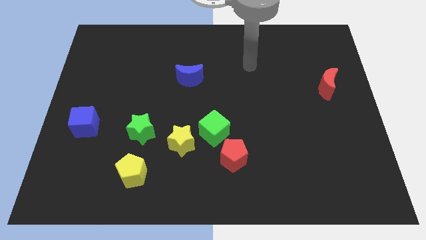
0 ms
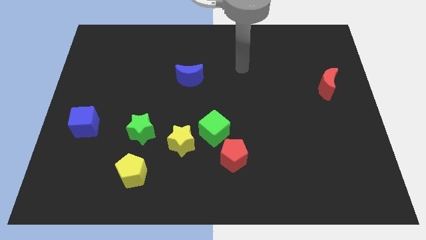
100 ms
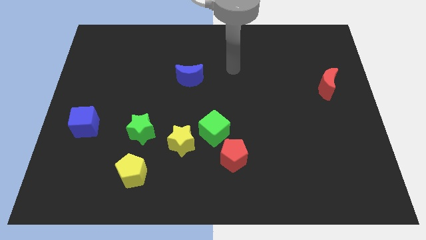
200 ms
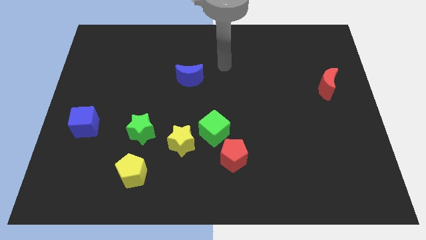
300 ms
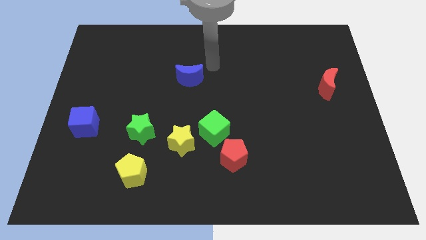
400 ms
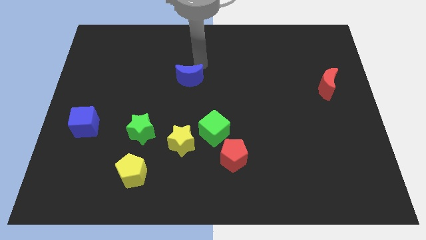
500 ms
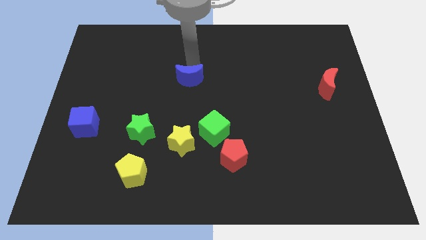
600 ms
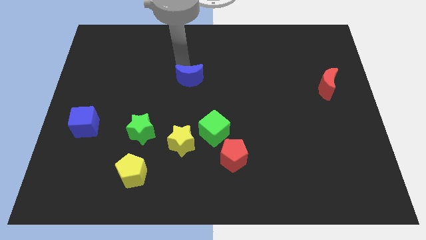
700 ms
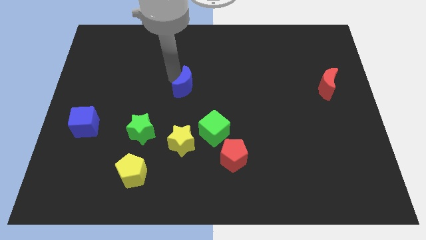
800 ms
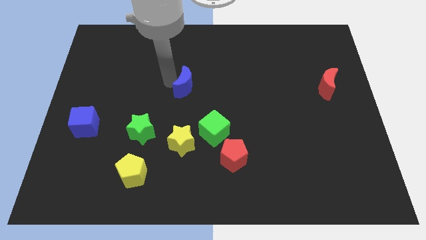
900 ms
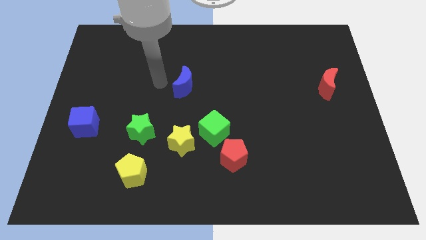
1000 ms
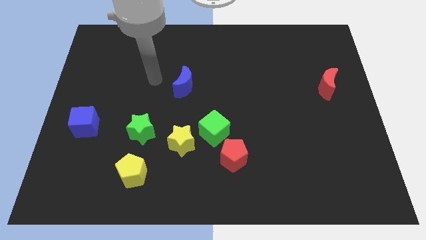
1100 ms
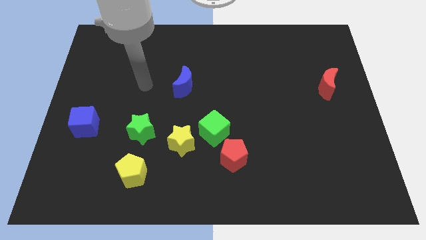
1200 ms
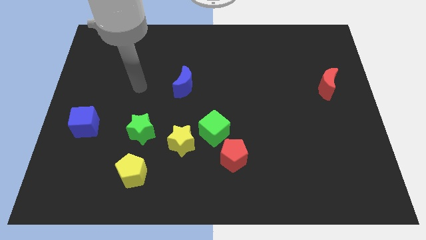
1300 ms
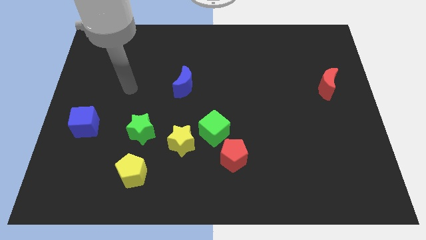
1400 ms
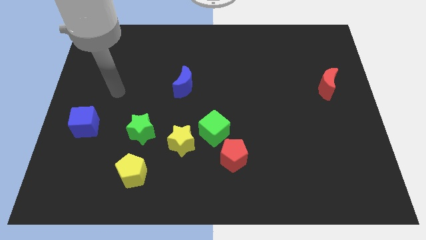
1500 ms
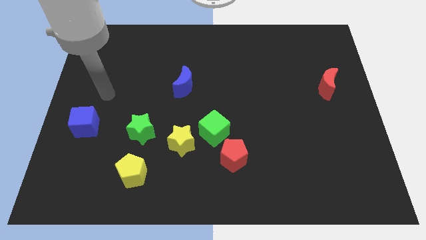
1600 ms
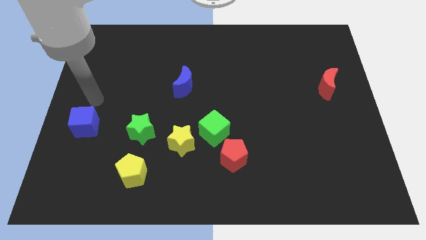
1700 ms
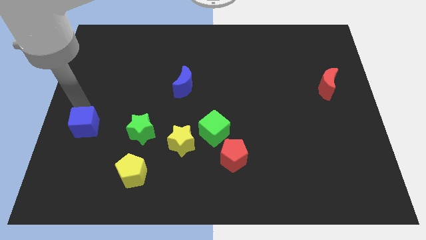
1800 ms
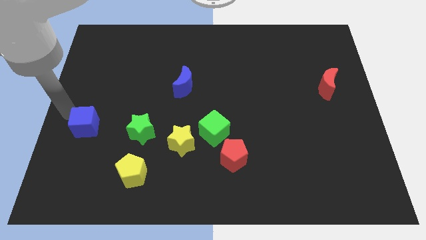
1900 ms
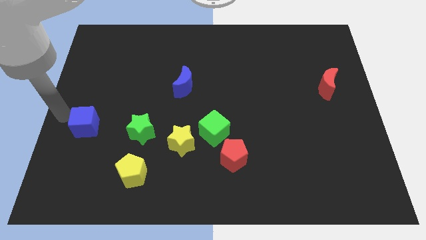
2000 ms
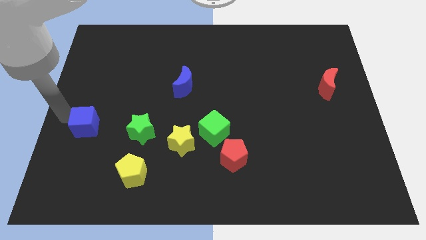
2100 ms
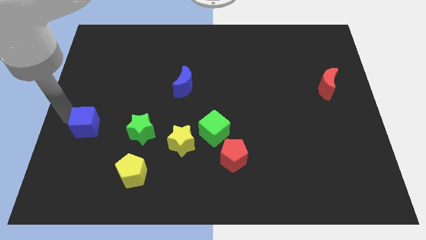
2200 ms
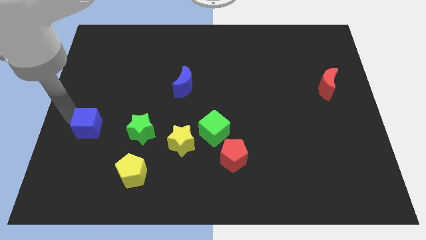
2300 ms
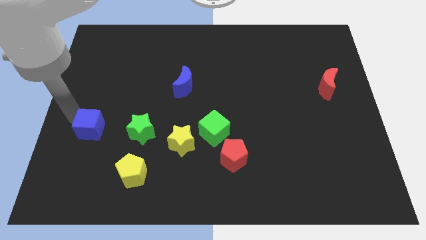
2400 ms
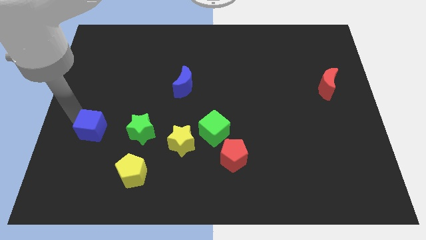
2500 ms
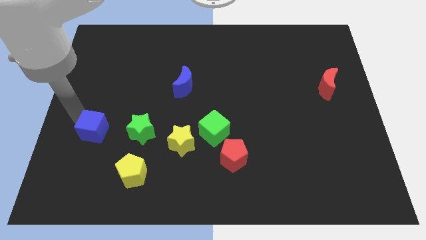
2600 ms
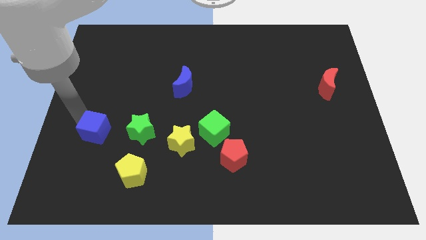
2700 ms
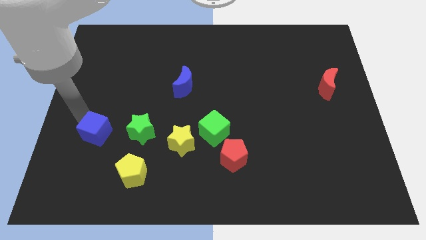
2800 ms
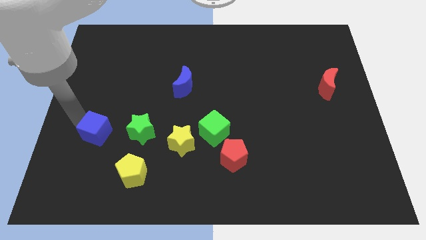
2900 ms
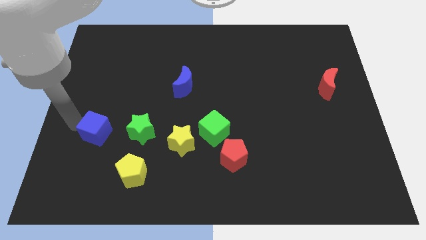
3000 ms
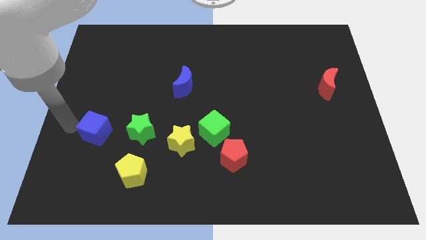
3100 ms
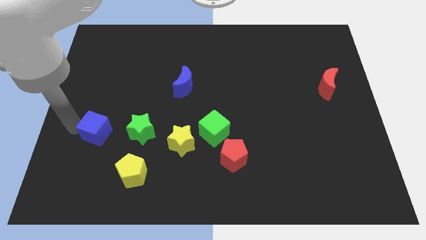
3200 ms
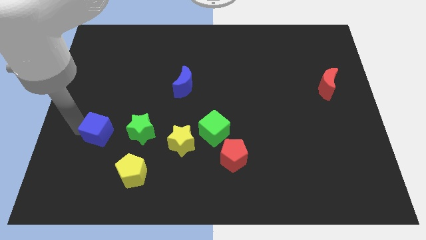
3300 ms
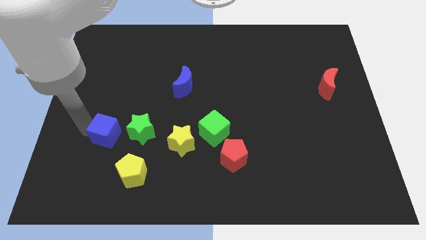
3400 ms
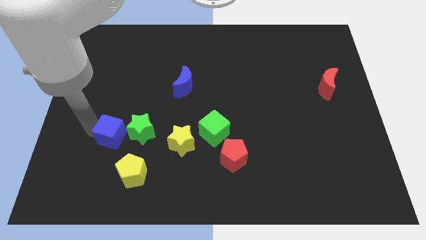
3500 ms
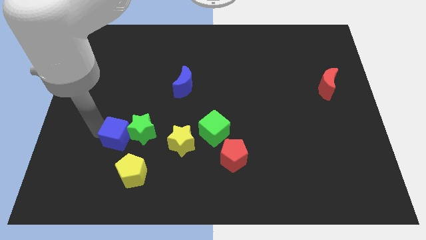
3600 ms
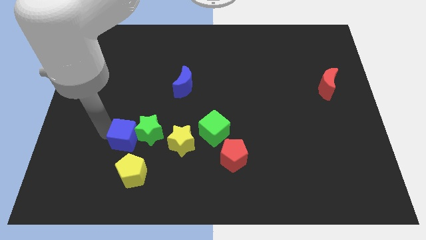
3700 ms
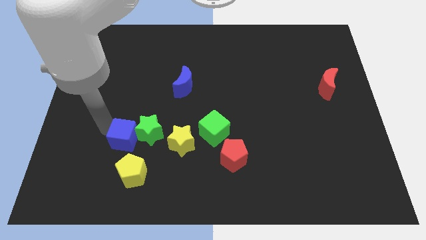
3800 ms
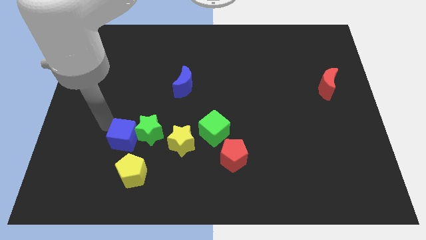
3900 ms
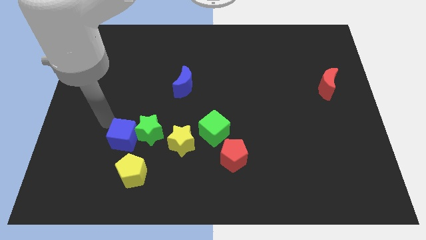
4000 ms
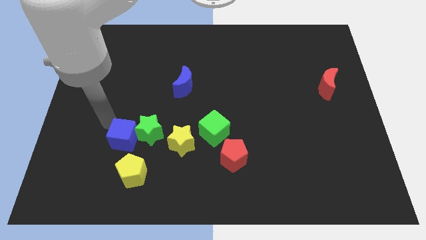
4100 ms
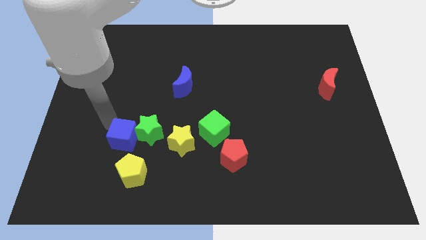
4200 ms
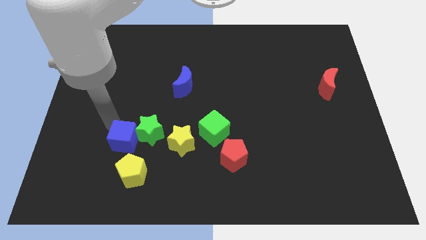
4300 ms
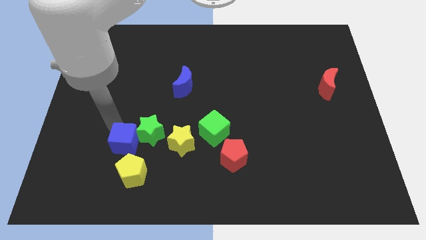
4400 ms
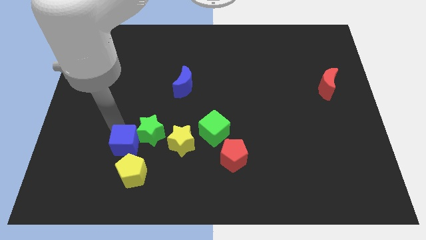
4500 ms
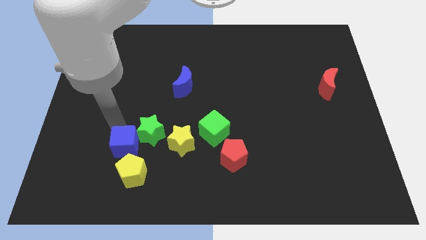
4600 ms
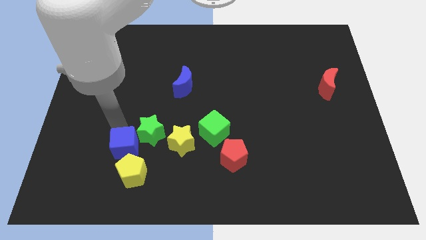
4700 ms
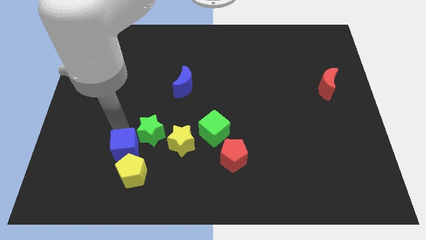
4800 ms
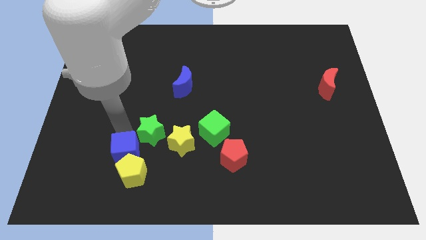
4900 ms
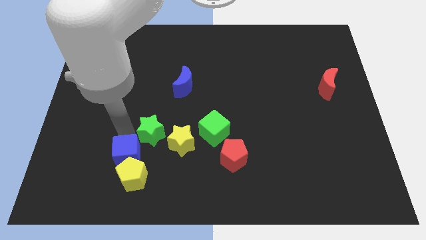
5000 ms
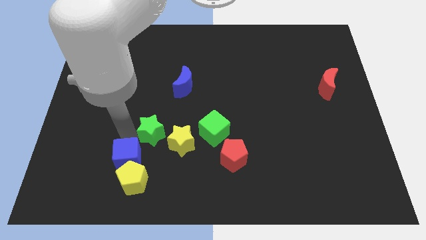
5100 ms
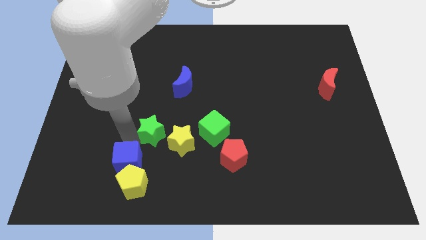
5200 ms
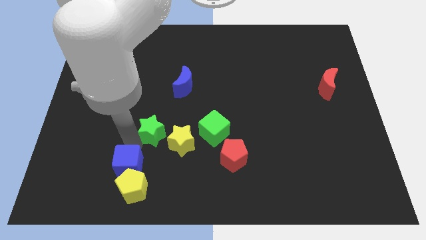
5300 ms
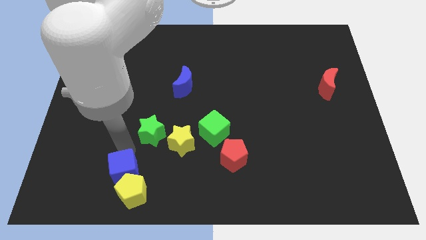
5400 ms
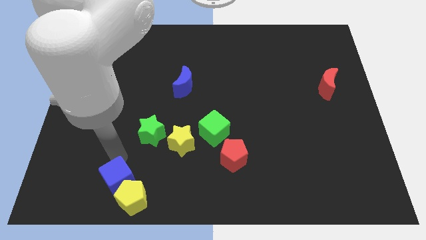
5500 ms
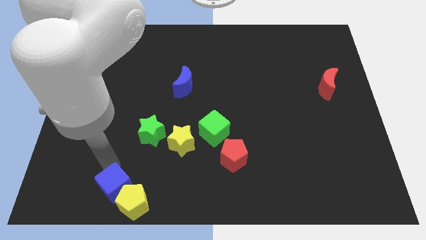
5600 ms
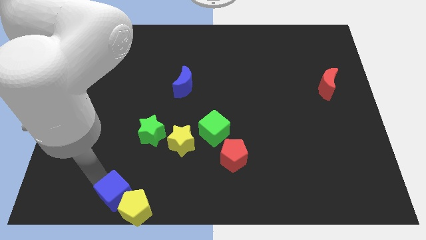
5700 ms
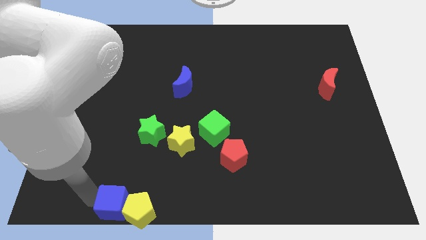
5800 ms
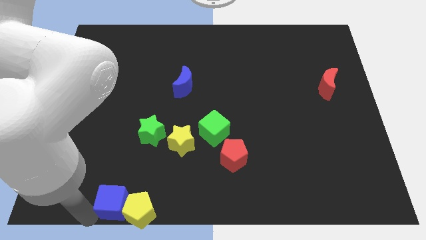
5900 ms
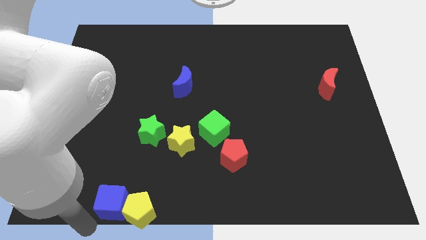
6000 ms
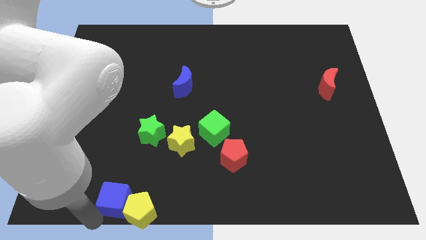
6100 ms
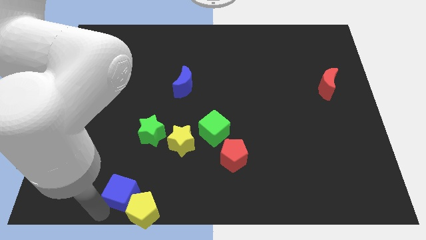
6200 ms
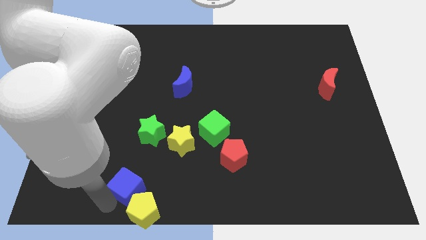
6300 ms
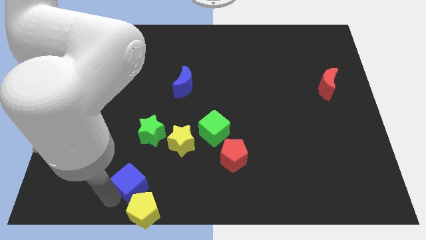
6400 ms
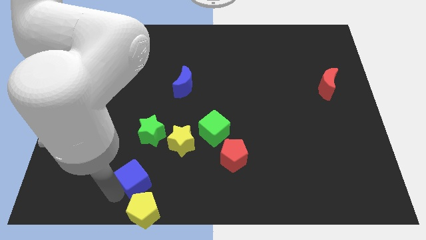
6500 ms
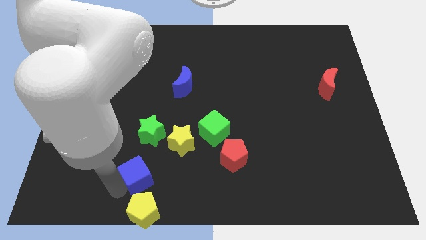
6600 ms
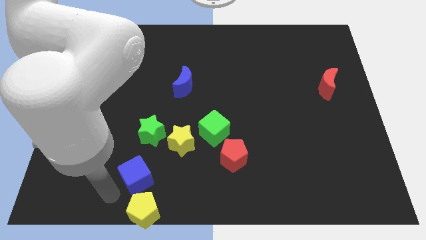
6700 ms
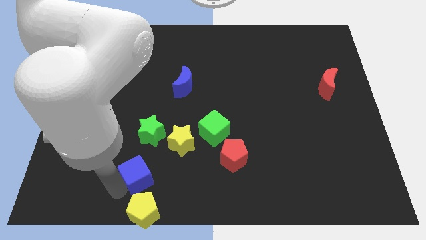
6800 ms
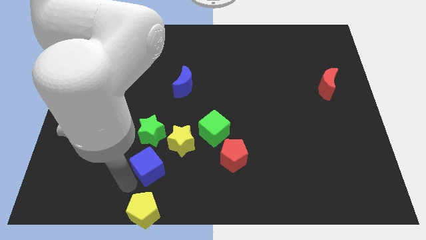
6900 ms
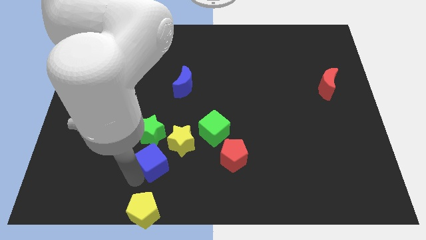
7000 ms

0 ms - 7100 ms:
move the blue cube to the bottom right side of the green star
